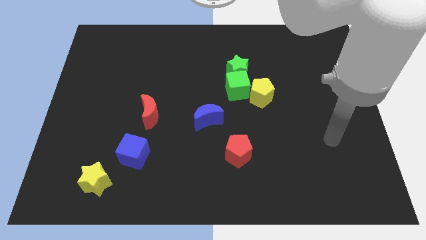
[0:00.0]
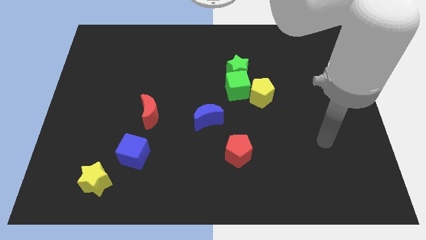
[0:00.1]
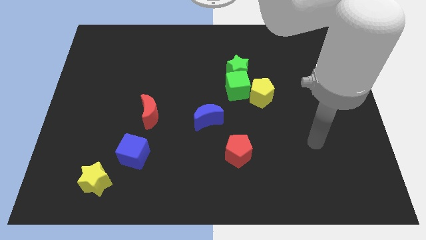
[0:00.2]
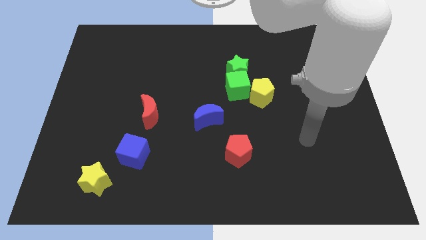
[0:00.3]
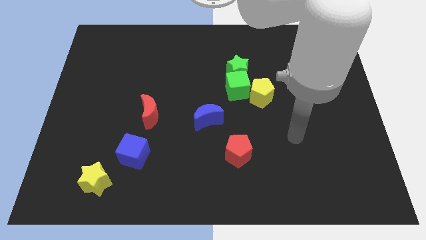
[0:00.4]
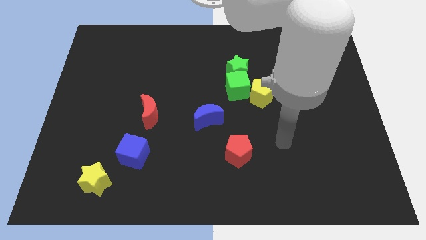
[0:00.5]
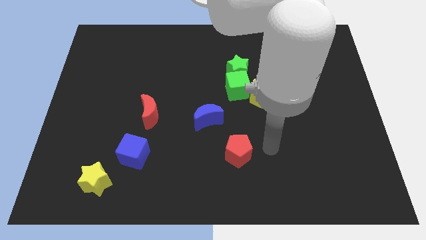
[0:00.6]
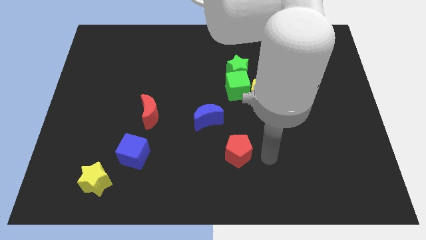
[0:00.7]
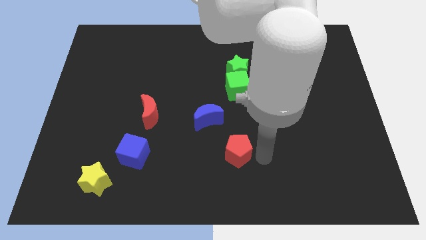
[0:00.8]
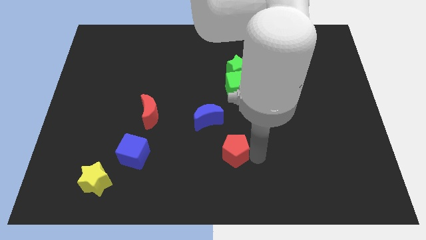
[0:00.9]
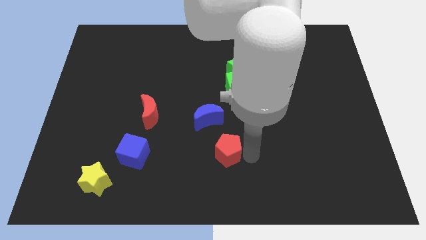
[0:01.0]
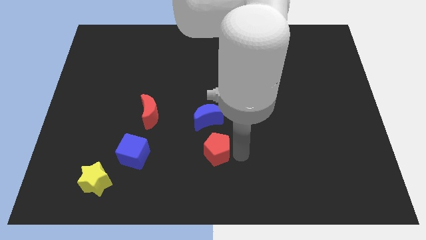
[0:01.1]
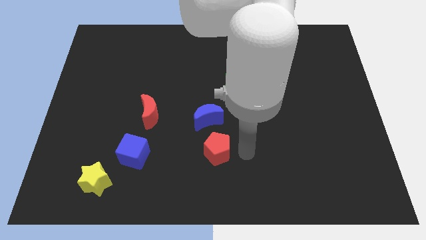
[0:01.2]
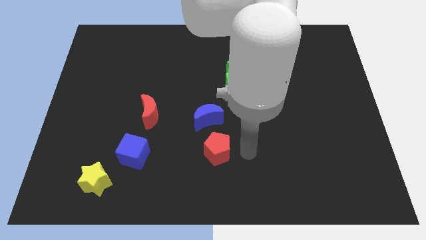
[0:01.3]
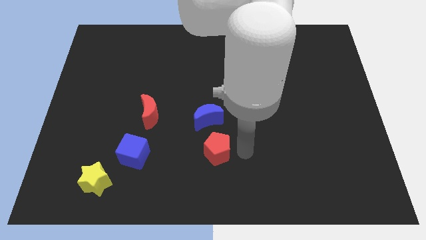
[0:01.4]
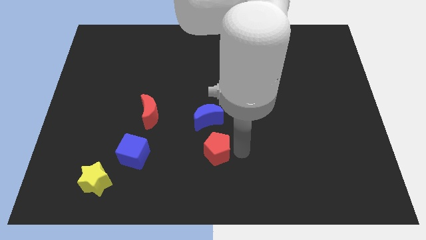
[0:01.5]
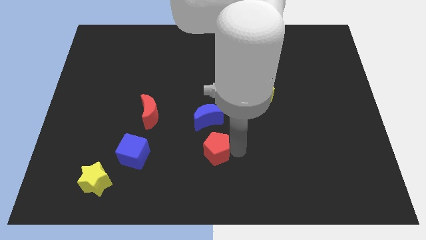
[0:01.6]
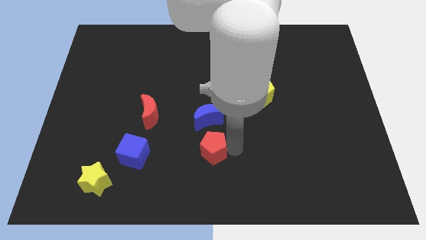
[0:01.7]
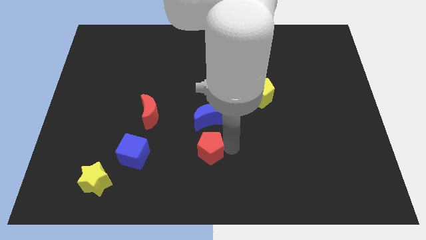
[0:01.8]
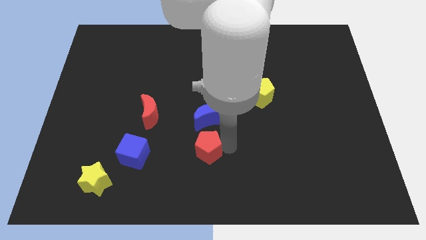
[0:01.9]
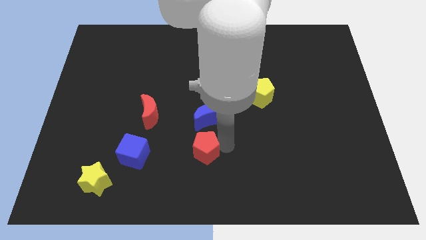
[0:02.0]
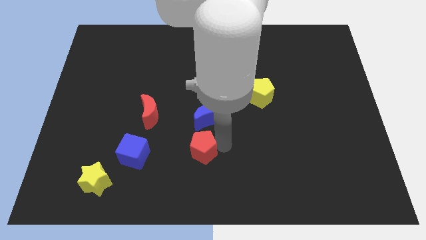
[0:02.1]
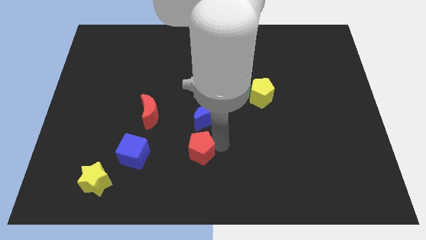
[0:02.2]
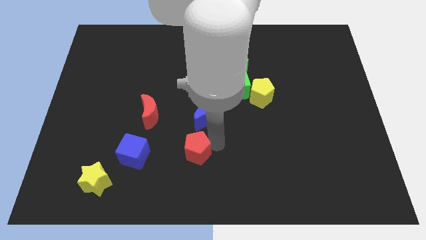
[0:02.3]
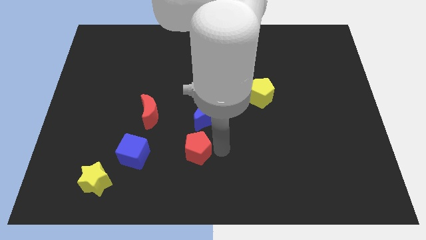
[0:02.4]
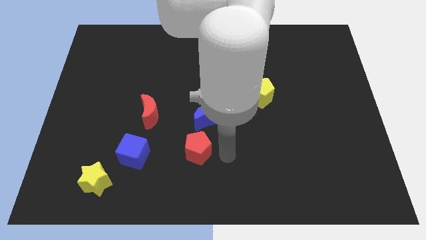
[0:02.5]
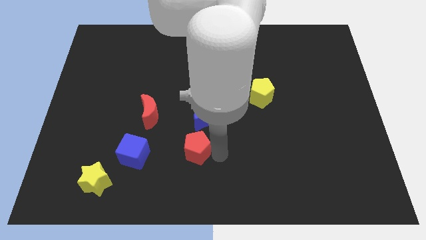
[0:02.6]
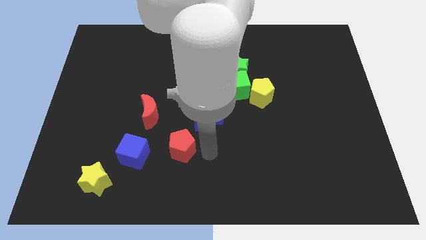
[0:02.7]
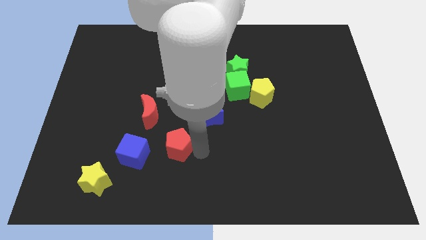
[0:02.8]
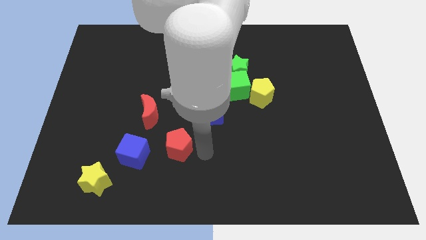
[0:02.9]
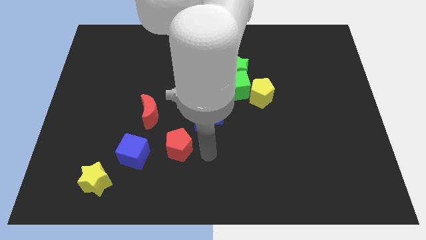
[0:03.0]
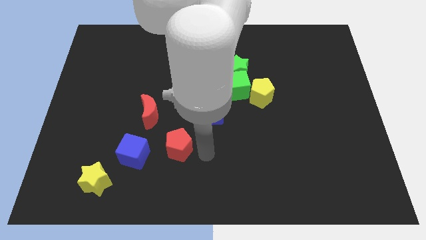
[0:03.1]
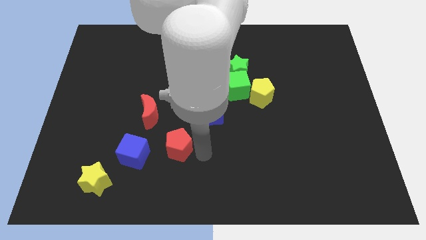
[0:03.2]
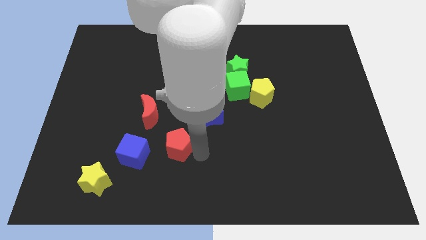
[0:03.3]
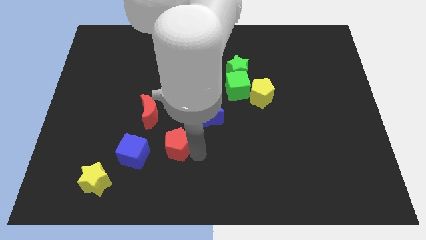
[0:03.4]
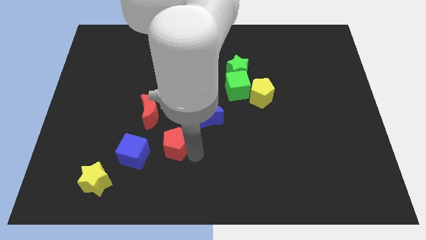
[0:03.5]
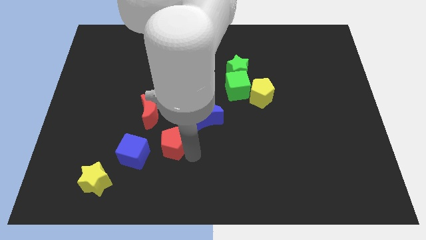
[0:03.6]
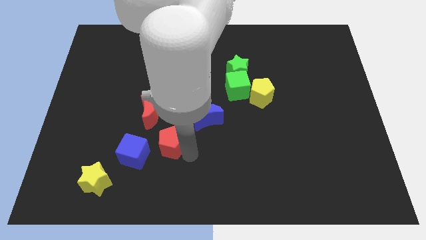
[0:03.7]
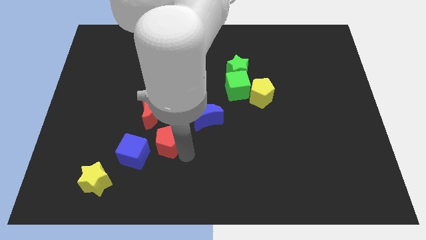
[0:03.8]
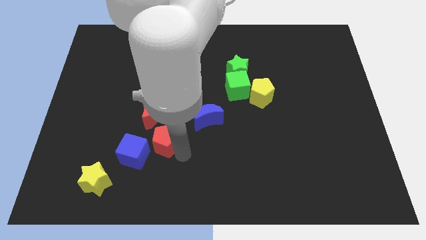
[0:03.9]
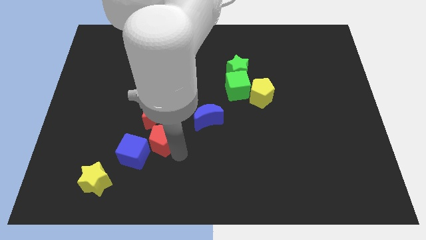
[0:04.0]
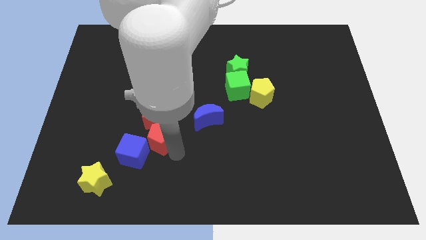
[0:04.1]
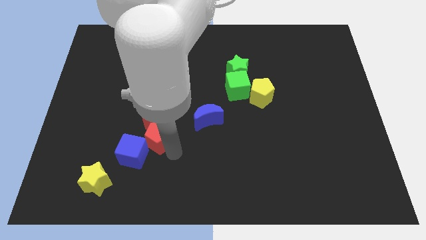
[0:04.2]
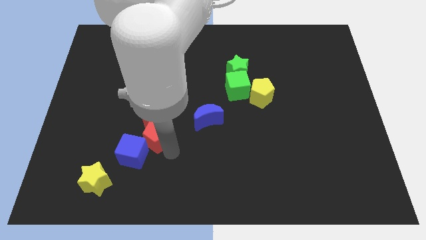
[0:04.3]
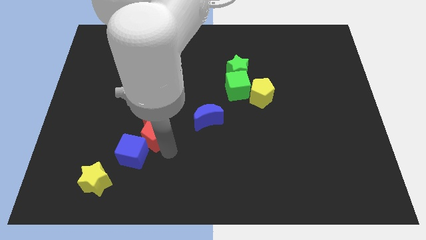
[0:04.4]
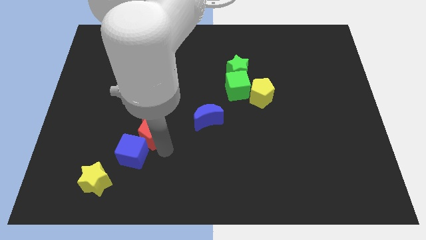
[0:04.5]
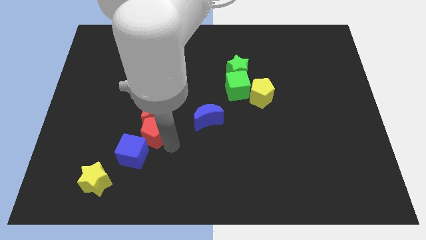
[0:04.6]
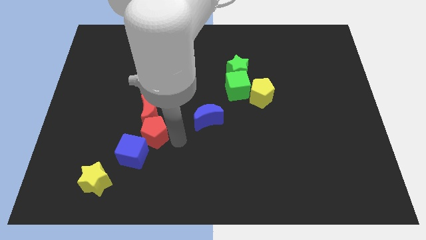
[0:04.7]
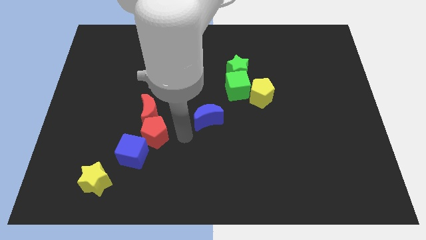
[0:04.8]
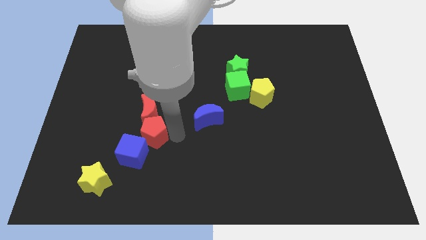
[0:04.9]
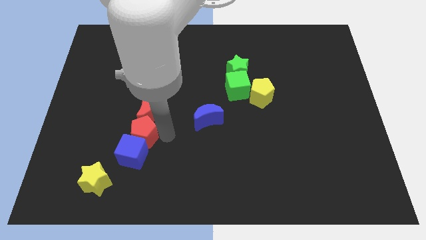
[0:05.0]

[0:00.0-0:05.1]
move the red pentagon to the top left of the blue cube

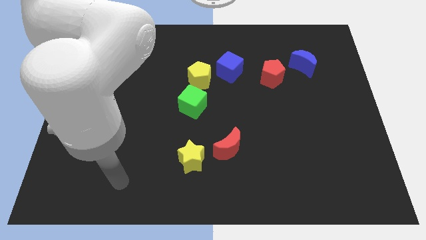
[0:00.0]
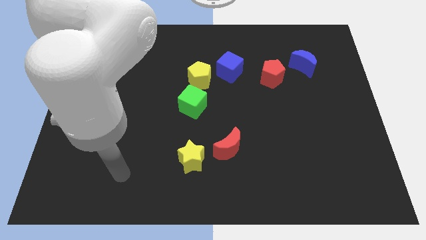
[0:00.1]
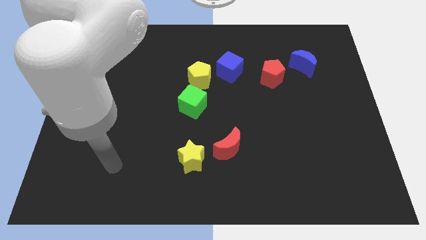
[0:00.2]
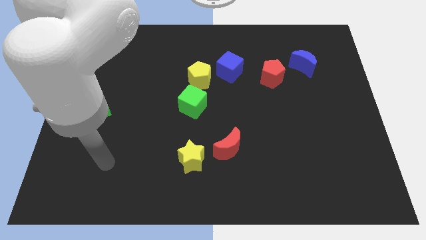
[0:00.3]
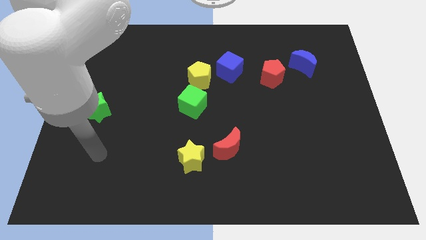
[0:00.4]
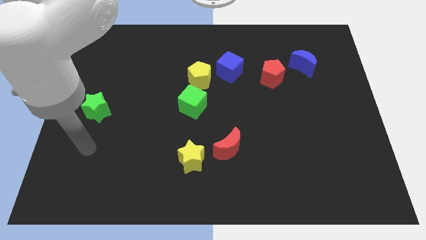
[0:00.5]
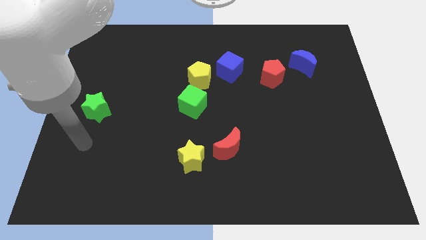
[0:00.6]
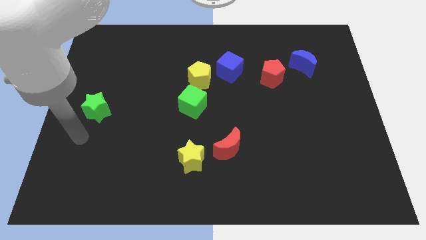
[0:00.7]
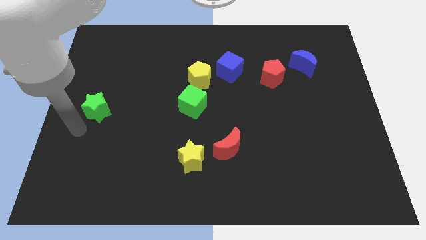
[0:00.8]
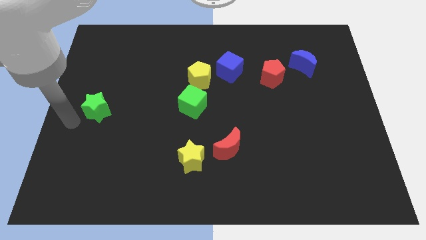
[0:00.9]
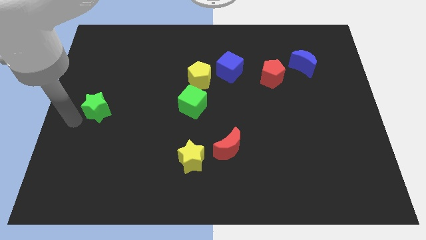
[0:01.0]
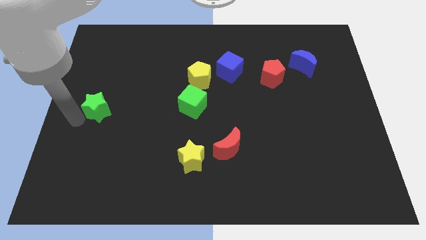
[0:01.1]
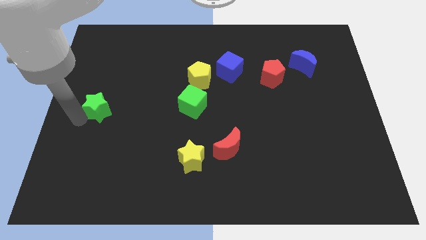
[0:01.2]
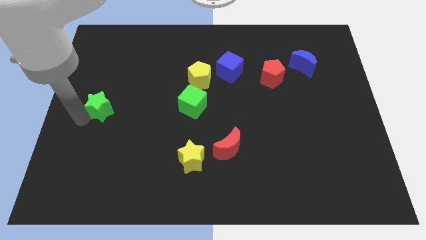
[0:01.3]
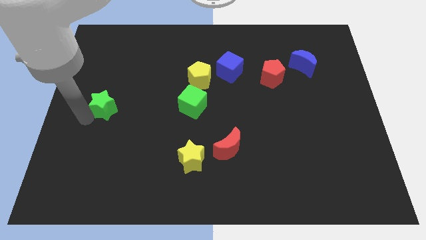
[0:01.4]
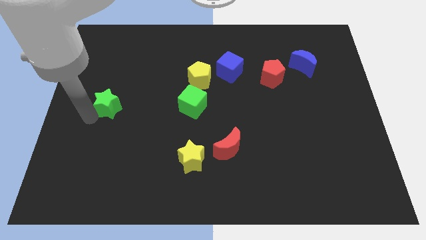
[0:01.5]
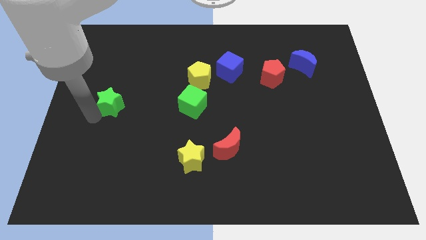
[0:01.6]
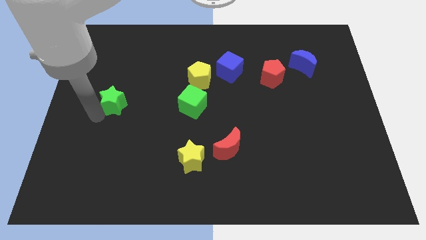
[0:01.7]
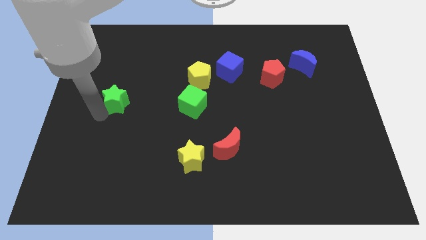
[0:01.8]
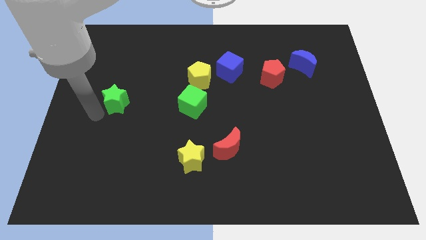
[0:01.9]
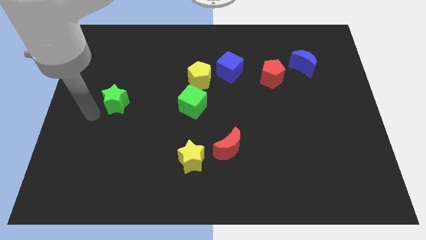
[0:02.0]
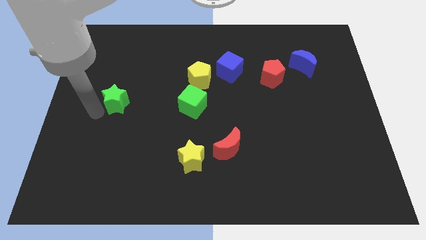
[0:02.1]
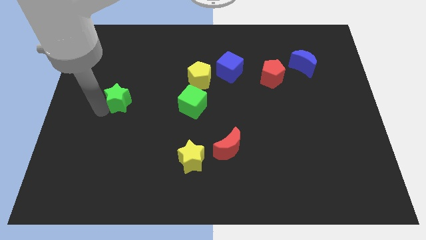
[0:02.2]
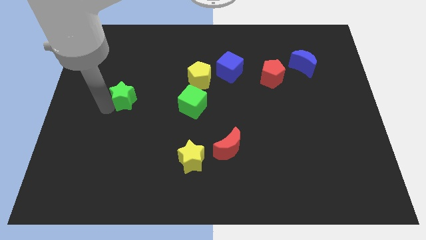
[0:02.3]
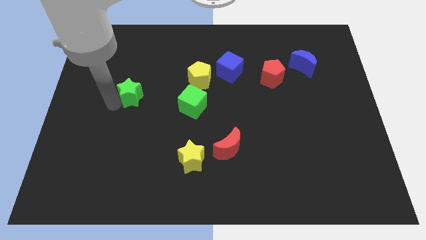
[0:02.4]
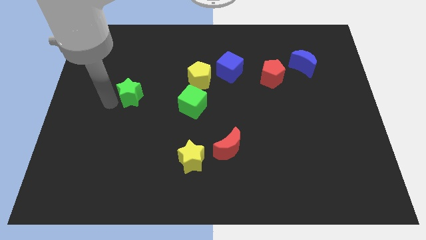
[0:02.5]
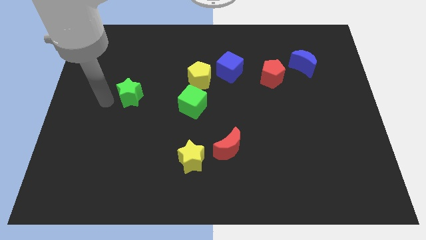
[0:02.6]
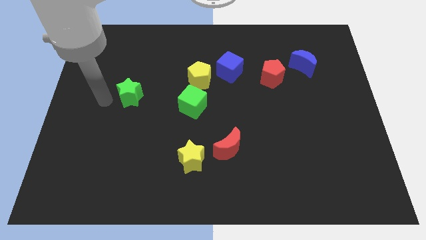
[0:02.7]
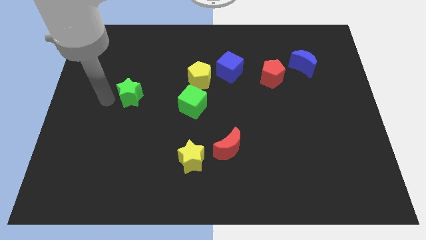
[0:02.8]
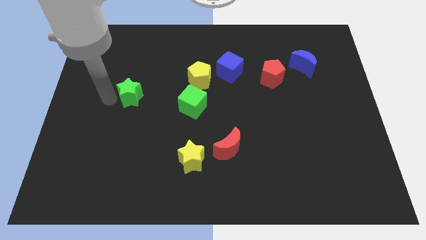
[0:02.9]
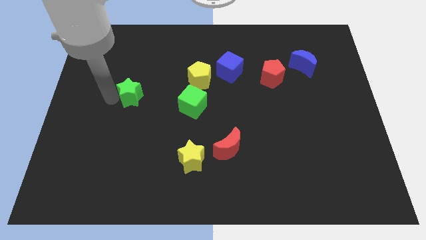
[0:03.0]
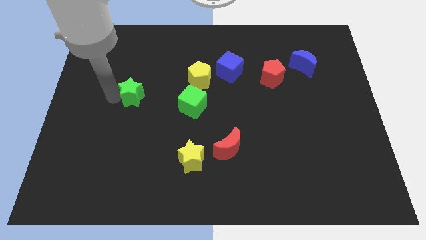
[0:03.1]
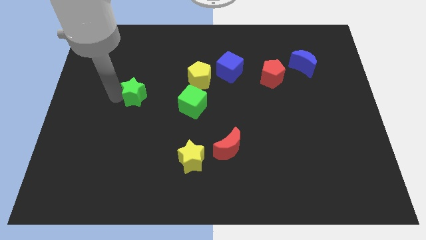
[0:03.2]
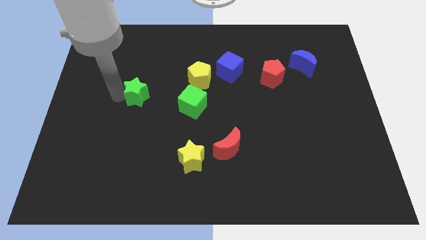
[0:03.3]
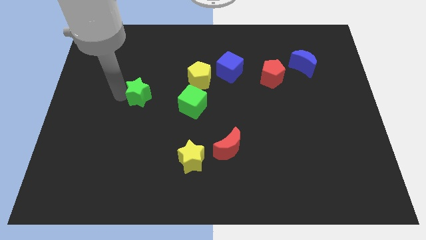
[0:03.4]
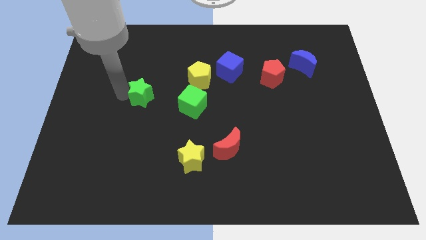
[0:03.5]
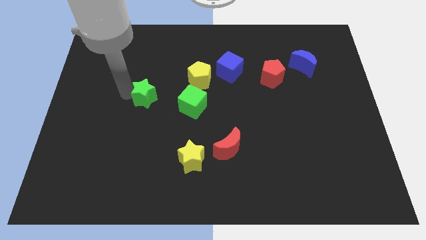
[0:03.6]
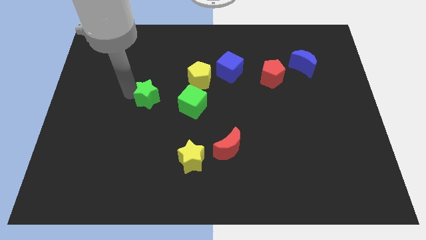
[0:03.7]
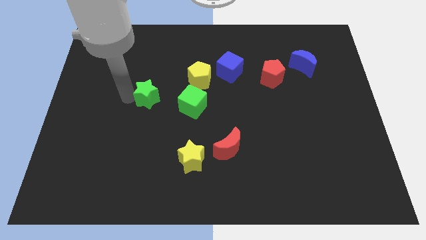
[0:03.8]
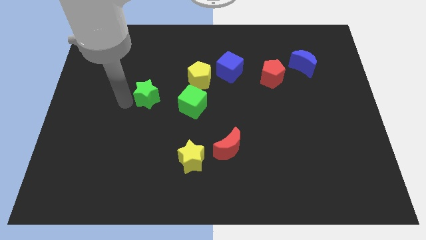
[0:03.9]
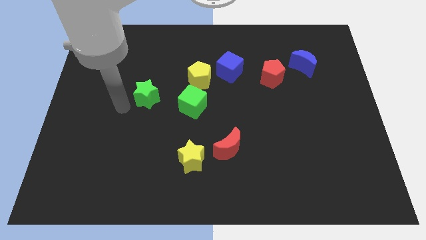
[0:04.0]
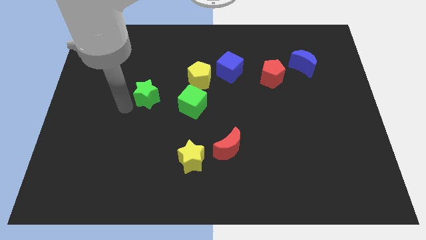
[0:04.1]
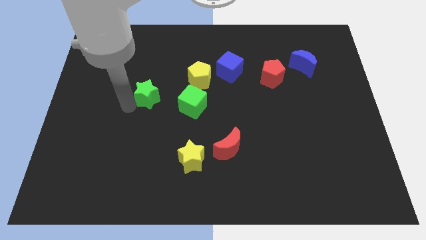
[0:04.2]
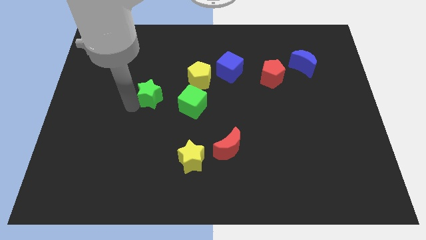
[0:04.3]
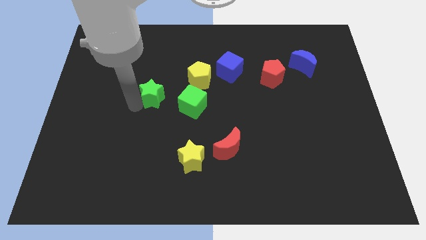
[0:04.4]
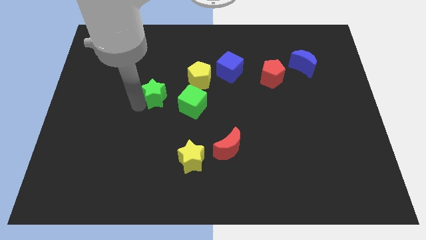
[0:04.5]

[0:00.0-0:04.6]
push the green star to the top left side of the green cube
